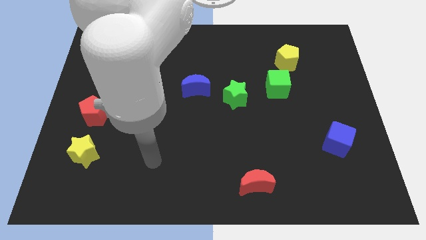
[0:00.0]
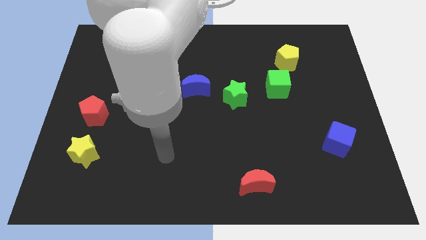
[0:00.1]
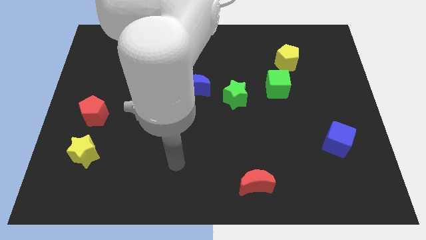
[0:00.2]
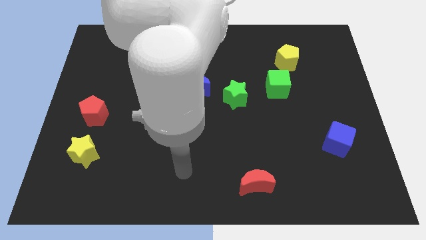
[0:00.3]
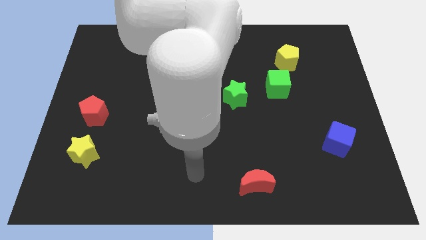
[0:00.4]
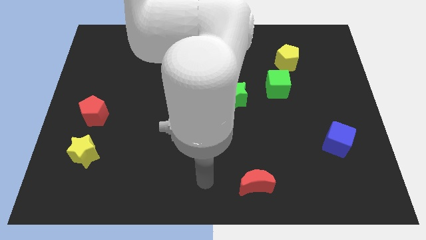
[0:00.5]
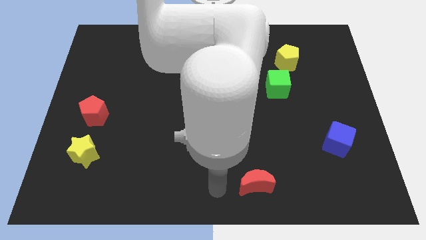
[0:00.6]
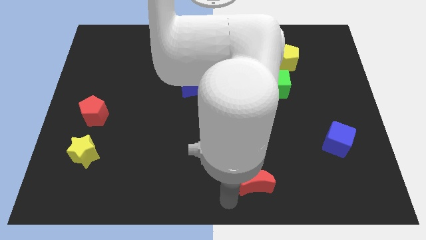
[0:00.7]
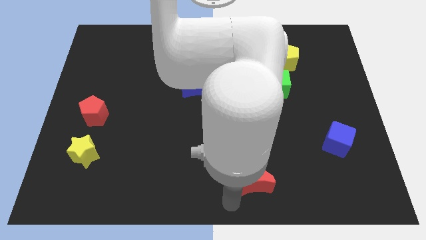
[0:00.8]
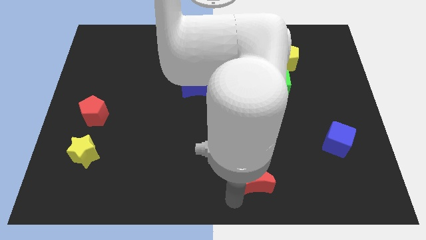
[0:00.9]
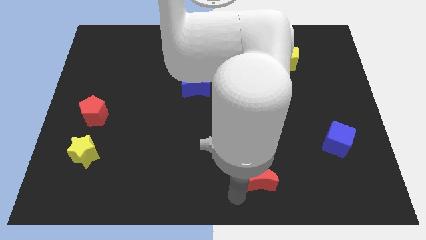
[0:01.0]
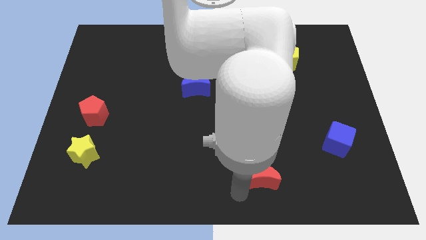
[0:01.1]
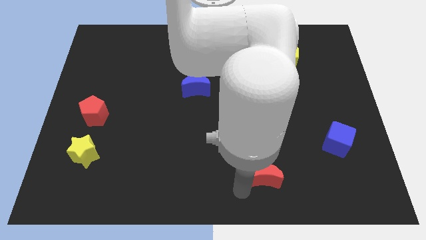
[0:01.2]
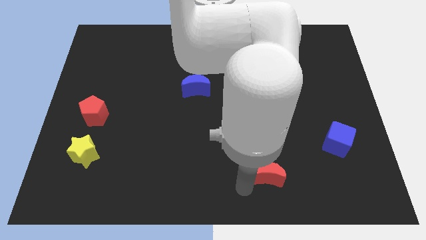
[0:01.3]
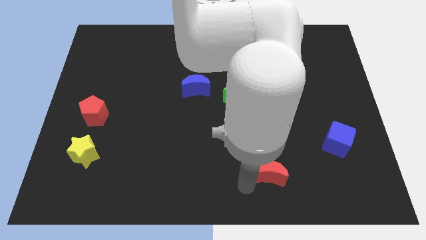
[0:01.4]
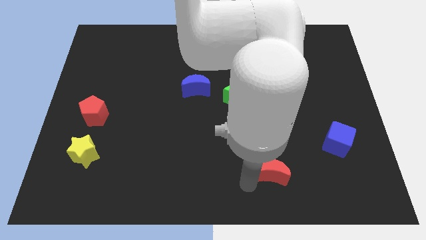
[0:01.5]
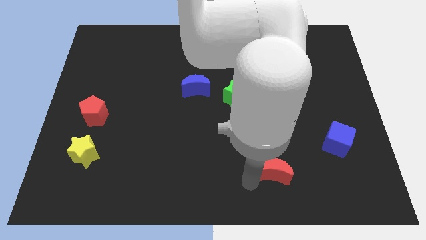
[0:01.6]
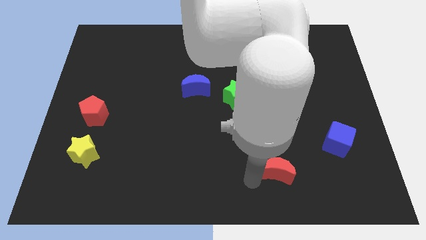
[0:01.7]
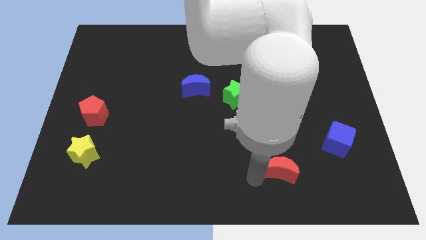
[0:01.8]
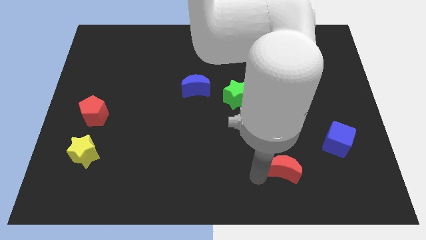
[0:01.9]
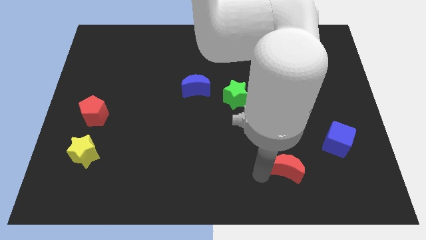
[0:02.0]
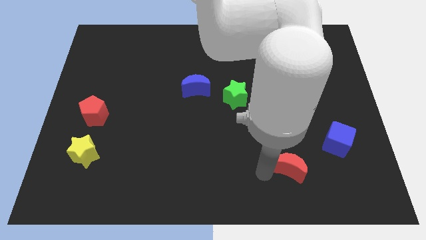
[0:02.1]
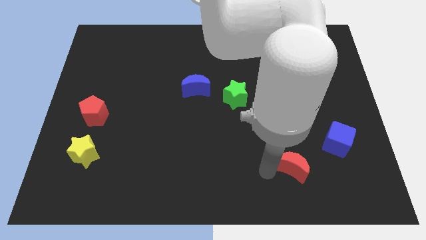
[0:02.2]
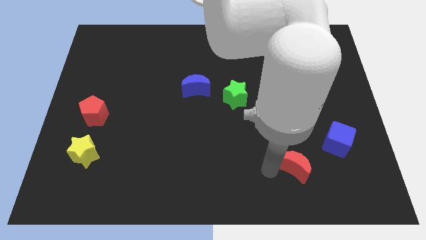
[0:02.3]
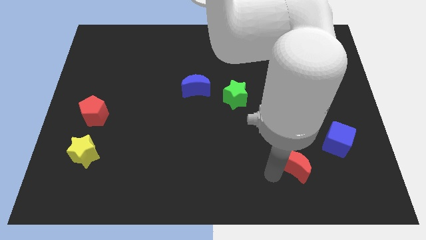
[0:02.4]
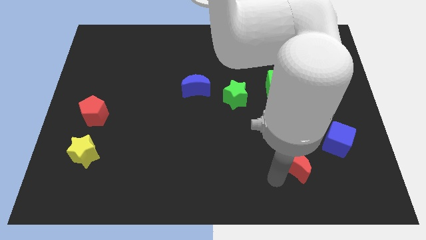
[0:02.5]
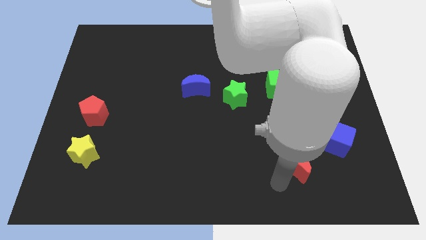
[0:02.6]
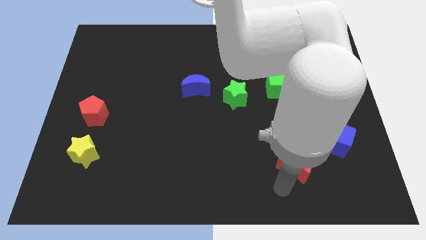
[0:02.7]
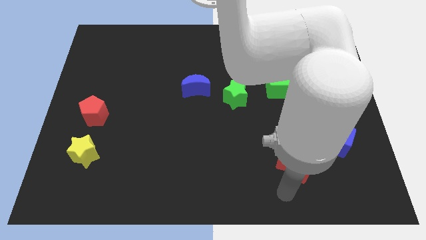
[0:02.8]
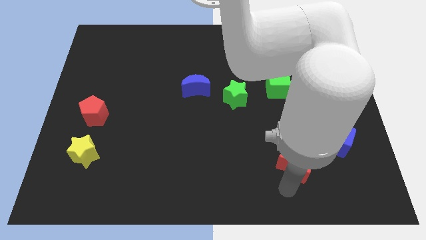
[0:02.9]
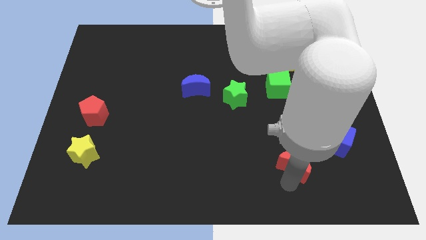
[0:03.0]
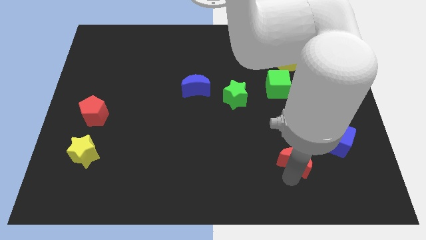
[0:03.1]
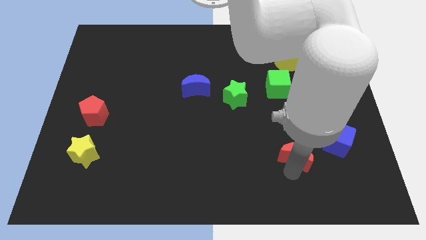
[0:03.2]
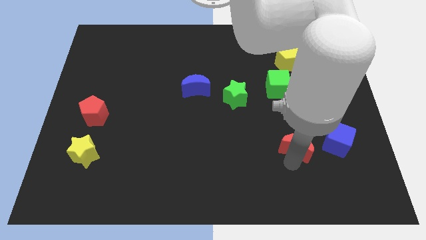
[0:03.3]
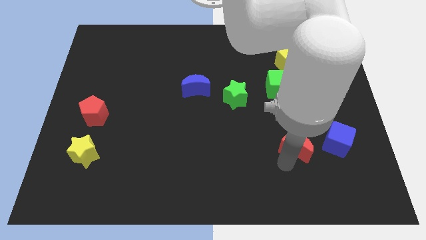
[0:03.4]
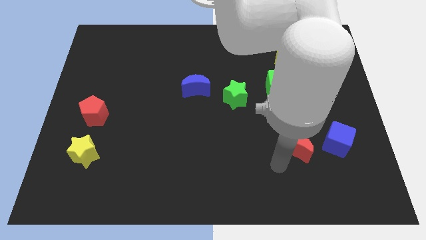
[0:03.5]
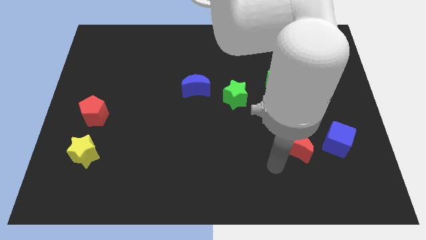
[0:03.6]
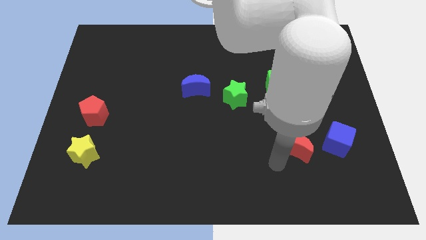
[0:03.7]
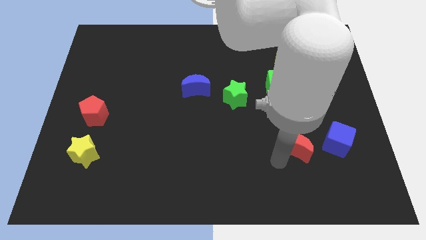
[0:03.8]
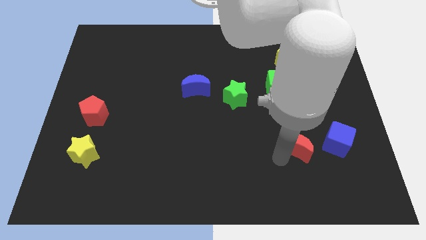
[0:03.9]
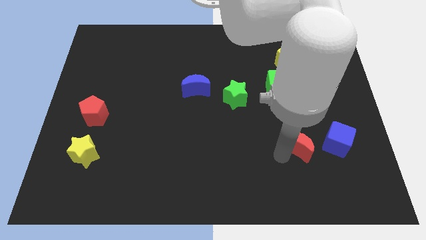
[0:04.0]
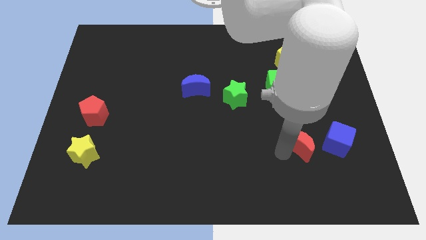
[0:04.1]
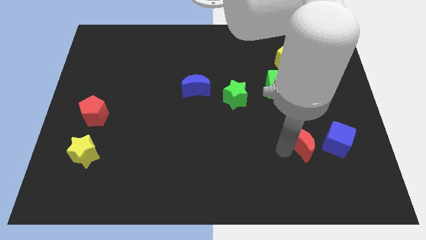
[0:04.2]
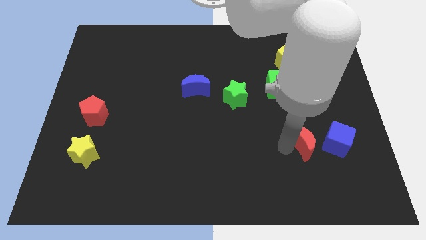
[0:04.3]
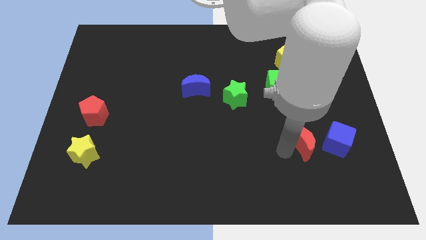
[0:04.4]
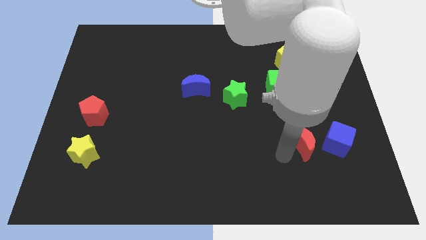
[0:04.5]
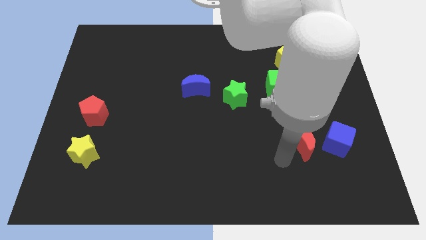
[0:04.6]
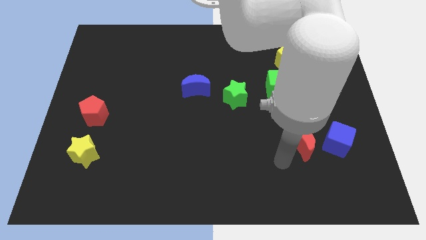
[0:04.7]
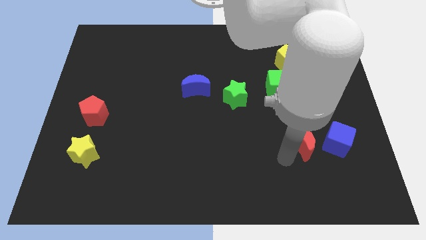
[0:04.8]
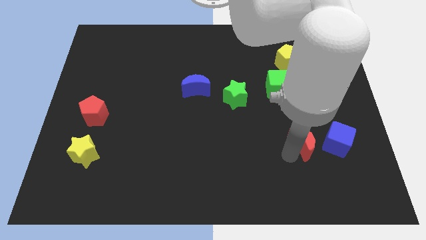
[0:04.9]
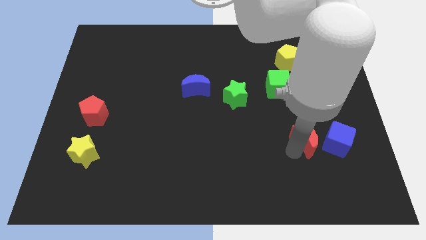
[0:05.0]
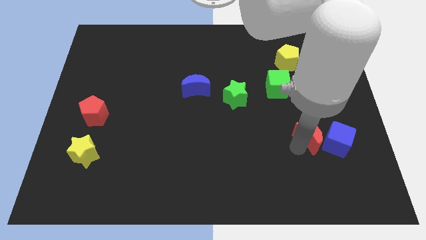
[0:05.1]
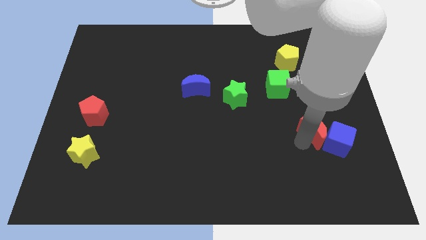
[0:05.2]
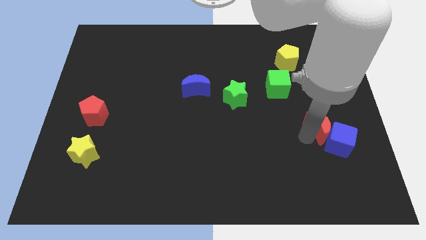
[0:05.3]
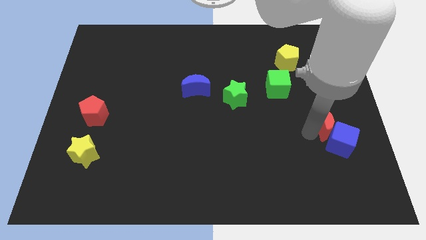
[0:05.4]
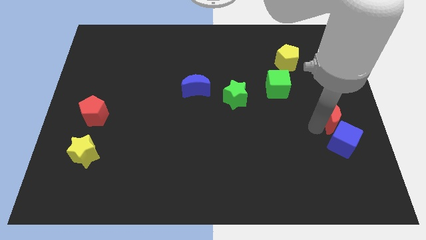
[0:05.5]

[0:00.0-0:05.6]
slide the red moon to the right side

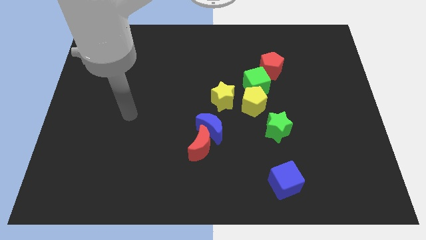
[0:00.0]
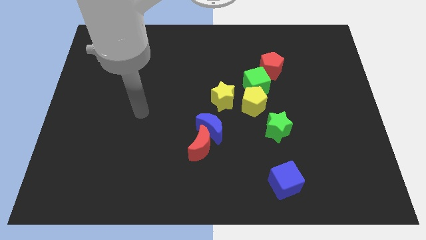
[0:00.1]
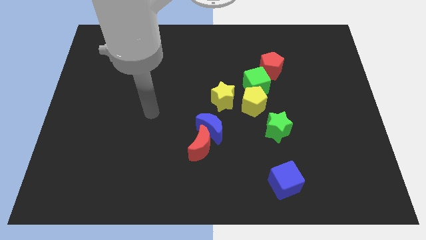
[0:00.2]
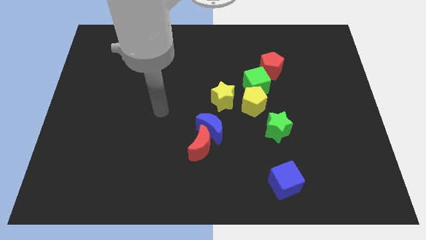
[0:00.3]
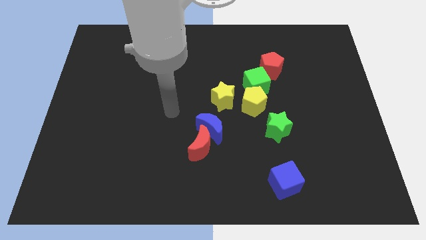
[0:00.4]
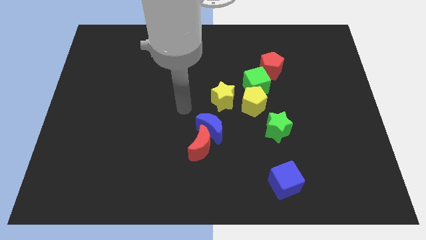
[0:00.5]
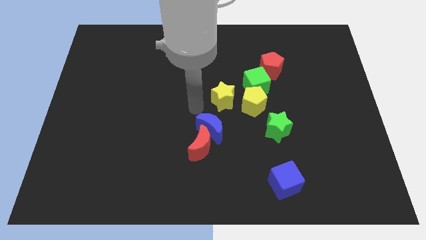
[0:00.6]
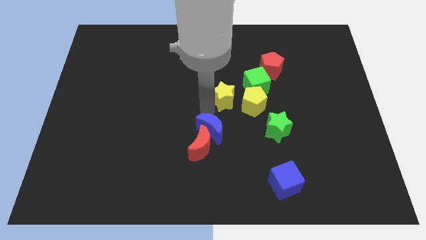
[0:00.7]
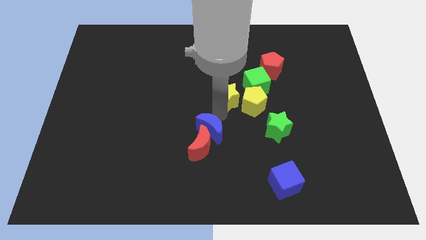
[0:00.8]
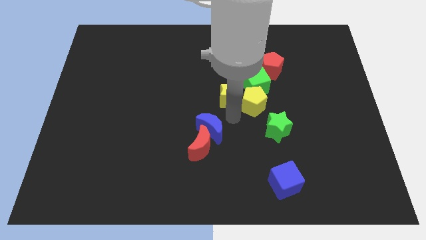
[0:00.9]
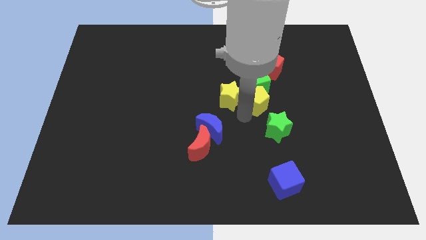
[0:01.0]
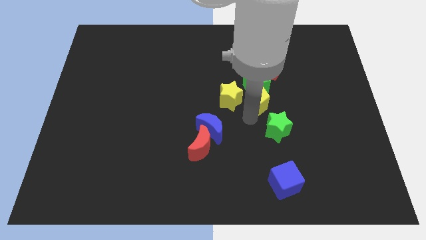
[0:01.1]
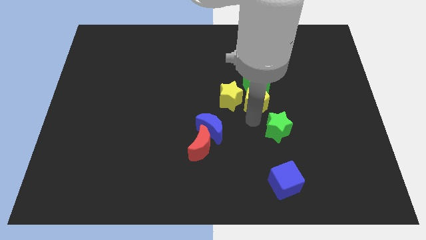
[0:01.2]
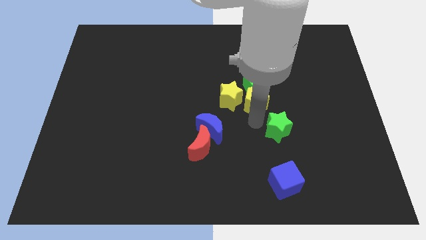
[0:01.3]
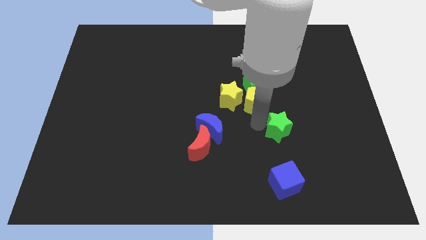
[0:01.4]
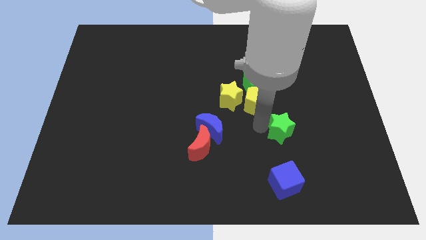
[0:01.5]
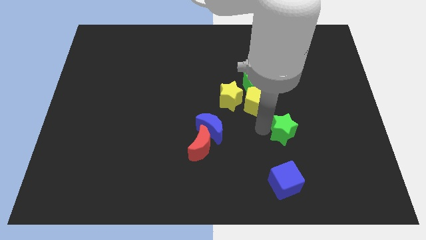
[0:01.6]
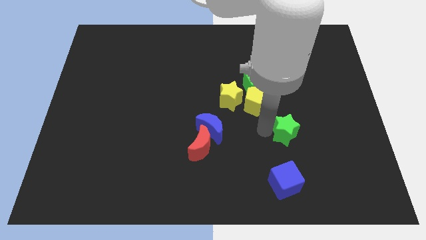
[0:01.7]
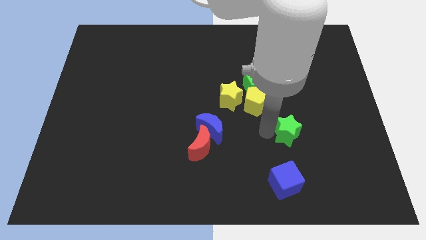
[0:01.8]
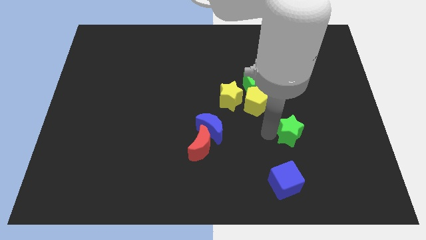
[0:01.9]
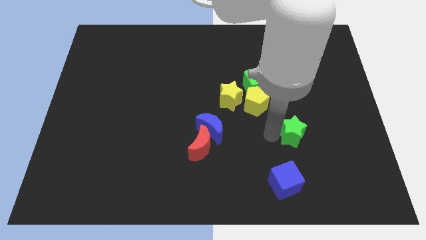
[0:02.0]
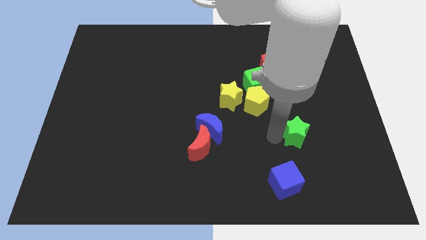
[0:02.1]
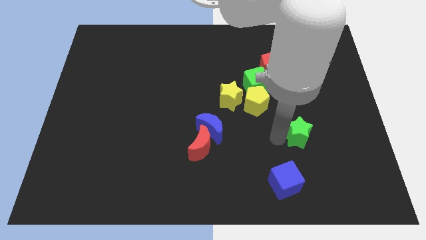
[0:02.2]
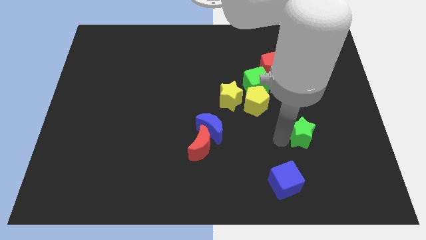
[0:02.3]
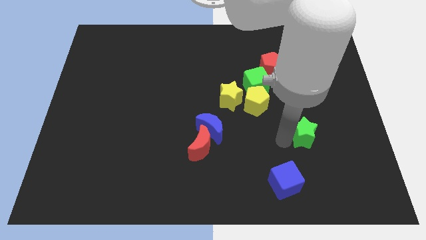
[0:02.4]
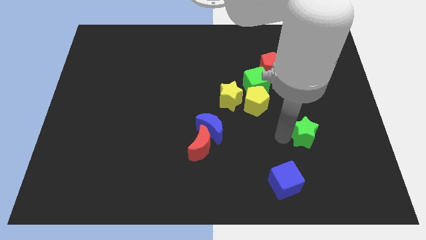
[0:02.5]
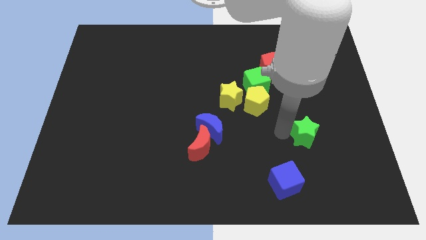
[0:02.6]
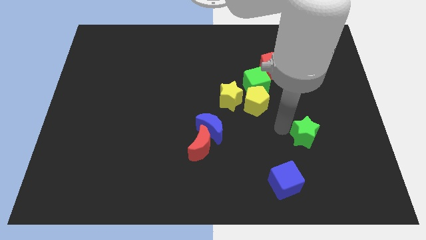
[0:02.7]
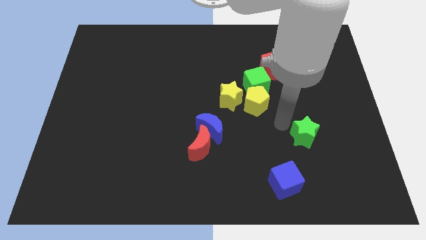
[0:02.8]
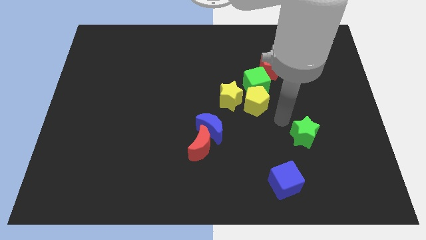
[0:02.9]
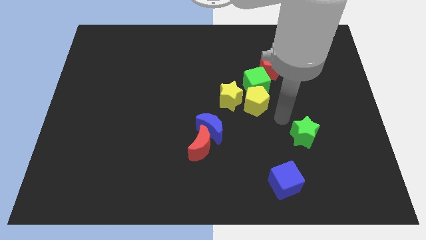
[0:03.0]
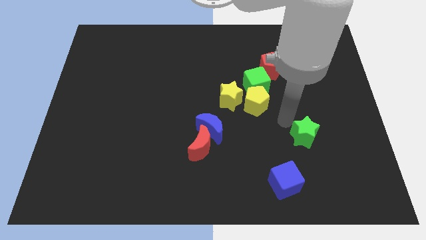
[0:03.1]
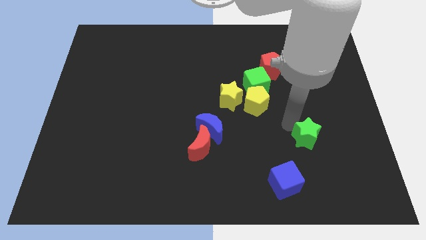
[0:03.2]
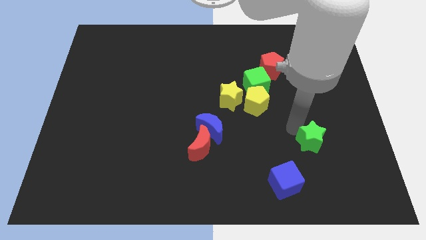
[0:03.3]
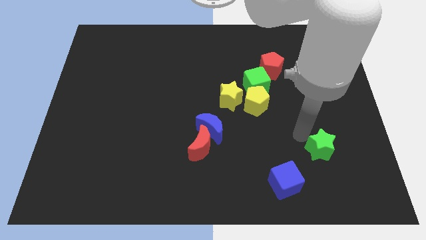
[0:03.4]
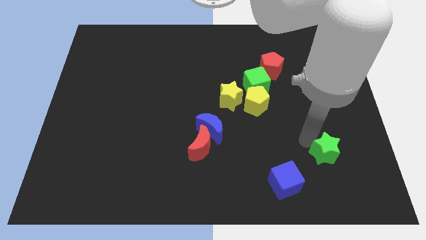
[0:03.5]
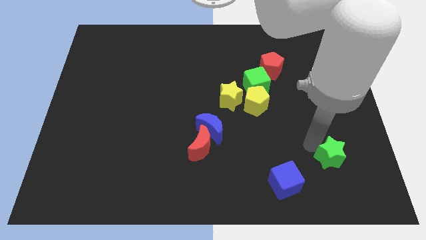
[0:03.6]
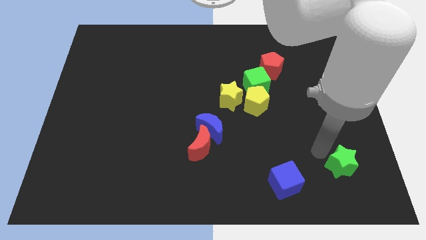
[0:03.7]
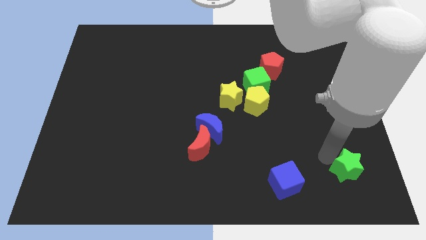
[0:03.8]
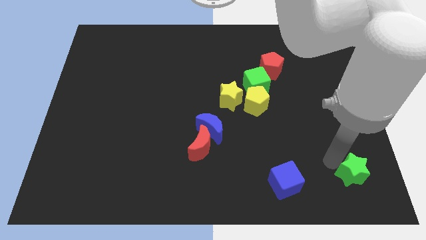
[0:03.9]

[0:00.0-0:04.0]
put the green star to the lower right corner
